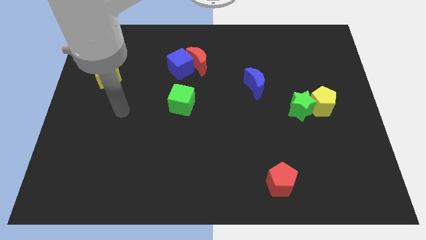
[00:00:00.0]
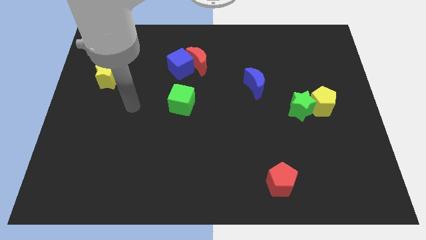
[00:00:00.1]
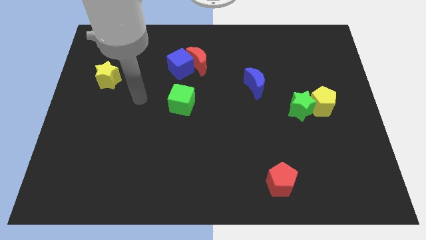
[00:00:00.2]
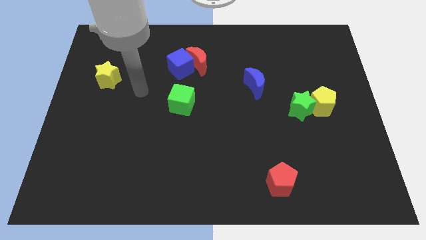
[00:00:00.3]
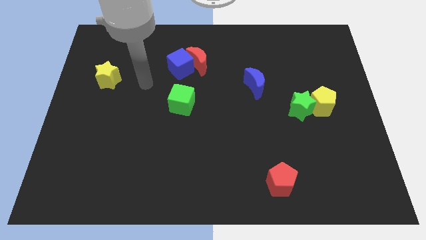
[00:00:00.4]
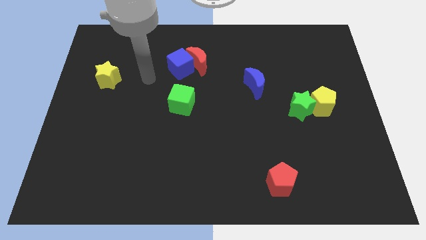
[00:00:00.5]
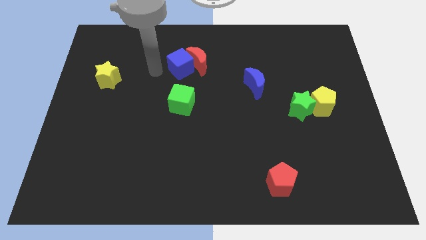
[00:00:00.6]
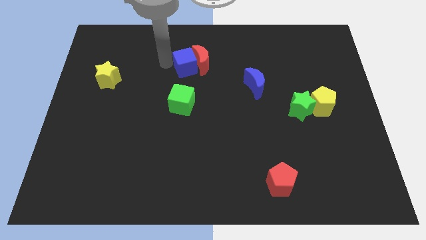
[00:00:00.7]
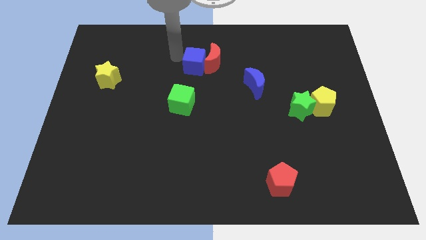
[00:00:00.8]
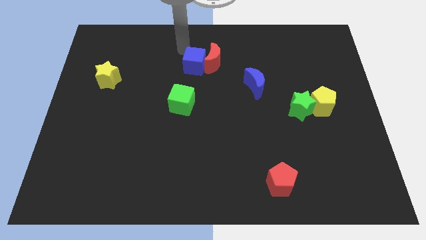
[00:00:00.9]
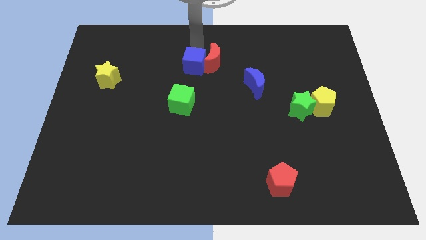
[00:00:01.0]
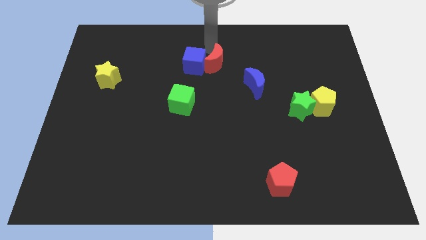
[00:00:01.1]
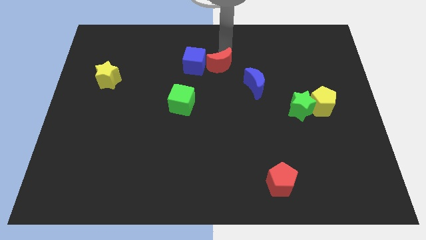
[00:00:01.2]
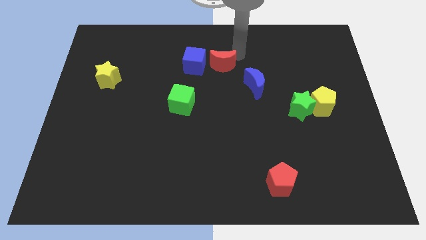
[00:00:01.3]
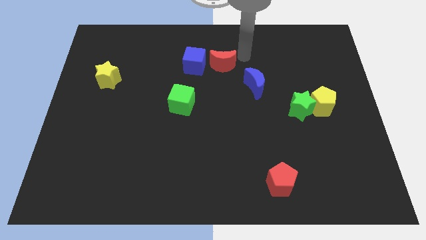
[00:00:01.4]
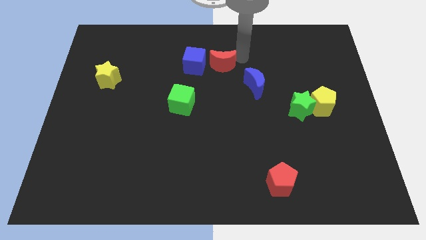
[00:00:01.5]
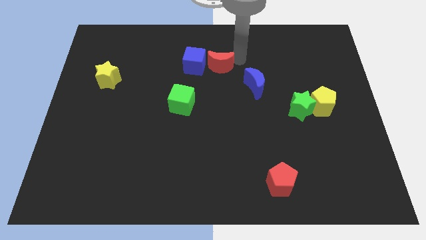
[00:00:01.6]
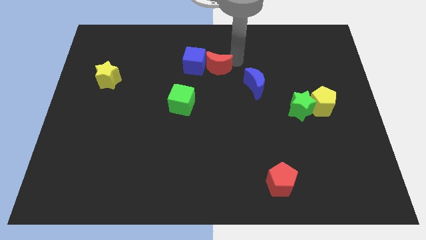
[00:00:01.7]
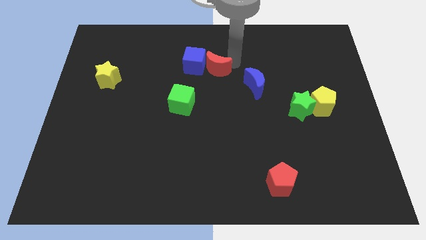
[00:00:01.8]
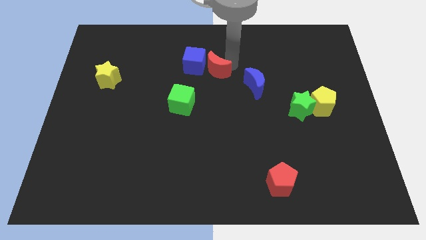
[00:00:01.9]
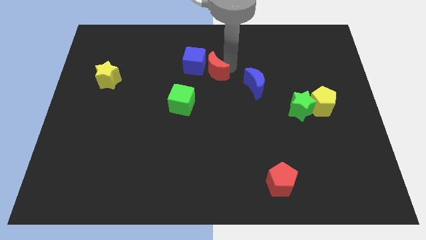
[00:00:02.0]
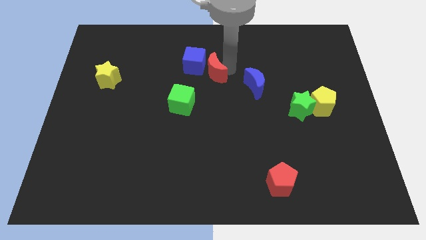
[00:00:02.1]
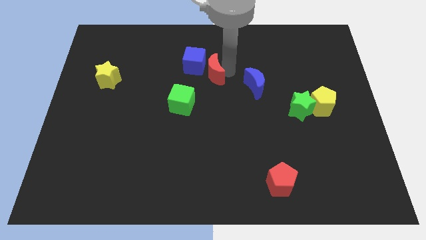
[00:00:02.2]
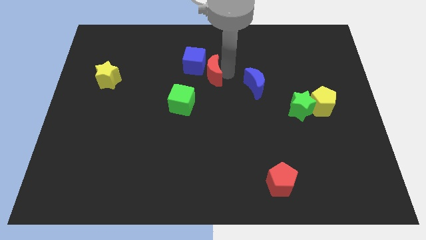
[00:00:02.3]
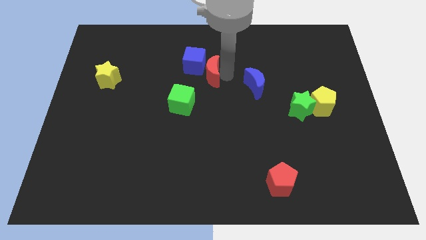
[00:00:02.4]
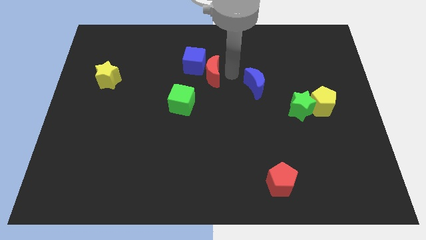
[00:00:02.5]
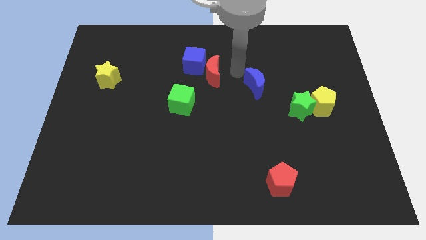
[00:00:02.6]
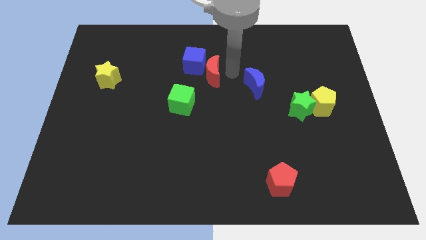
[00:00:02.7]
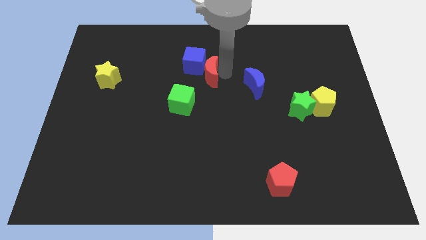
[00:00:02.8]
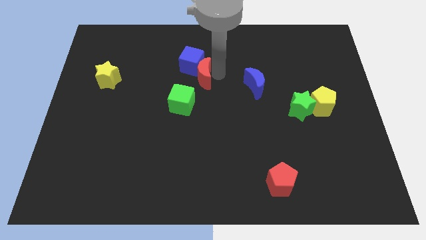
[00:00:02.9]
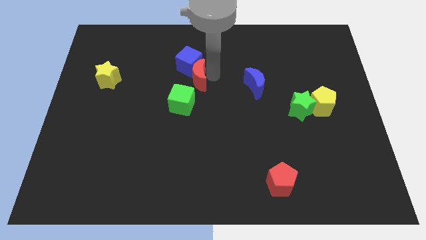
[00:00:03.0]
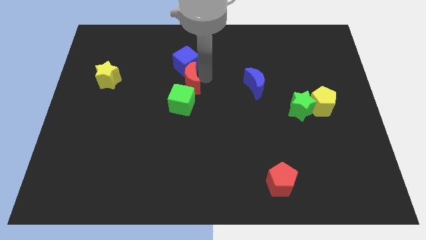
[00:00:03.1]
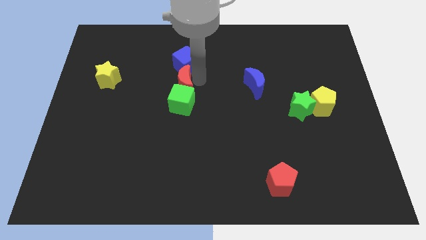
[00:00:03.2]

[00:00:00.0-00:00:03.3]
push the red moon downwards and then left a bit

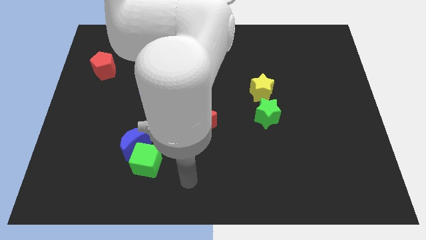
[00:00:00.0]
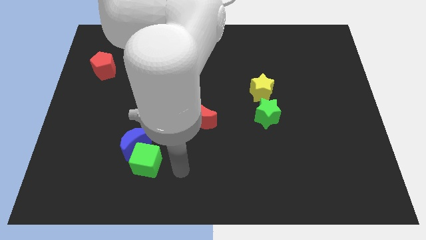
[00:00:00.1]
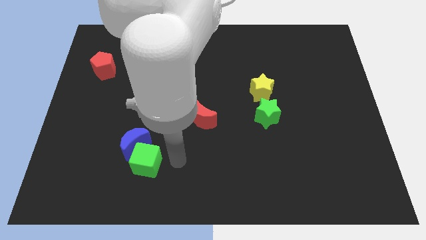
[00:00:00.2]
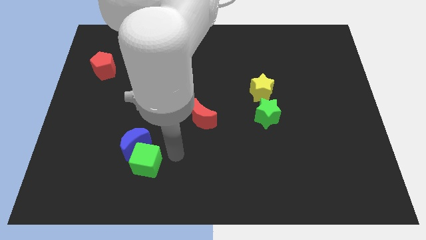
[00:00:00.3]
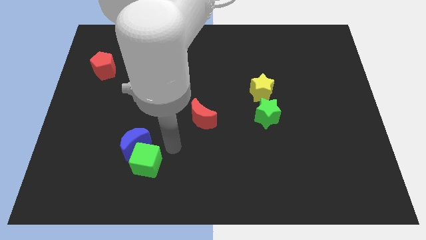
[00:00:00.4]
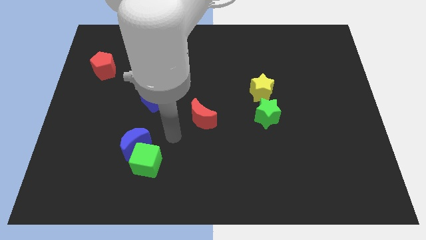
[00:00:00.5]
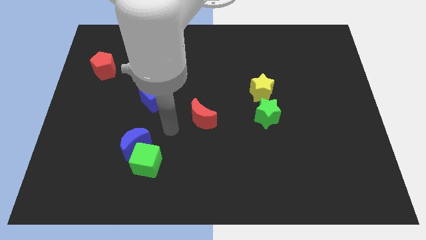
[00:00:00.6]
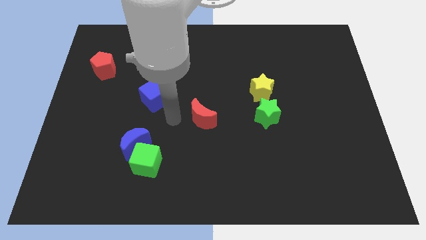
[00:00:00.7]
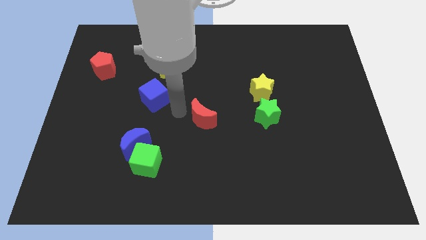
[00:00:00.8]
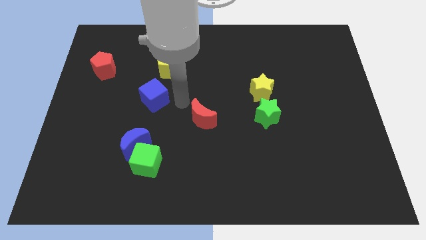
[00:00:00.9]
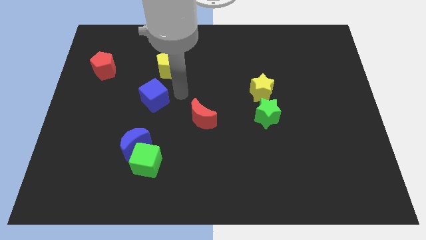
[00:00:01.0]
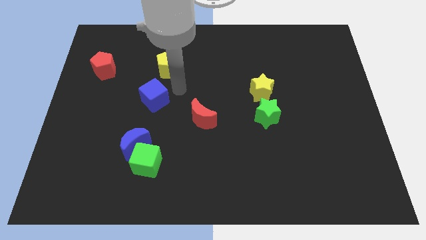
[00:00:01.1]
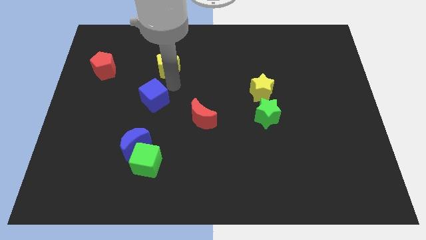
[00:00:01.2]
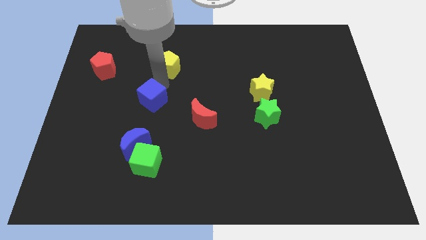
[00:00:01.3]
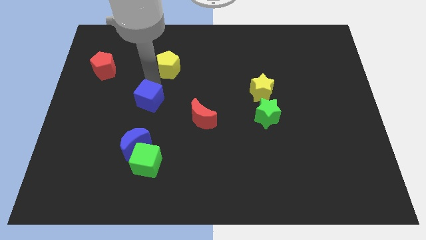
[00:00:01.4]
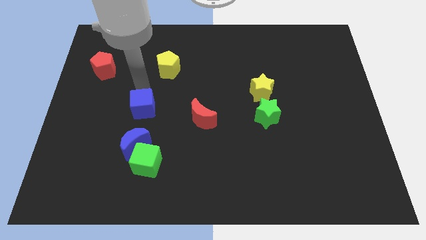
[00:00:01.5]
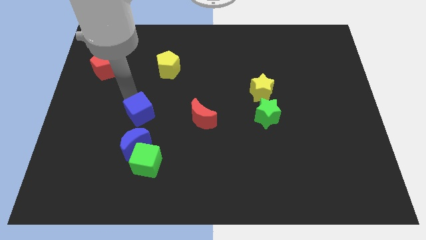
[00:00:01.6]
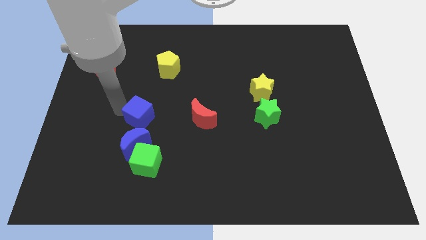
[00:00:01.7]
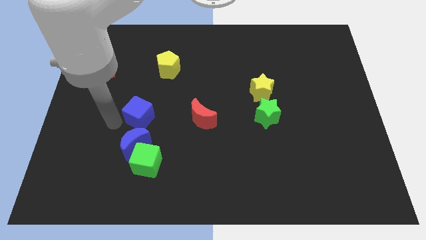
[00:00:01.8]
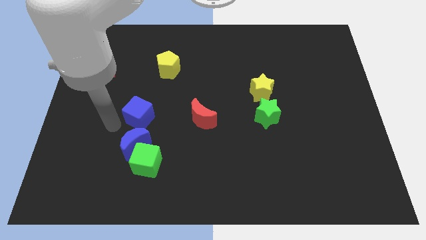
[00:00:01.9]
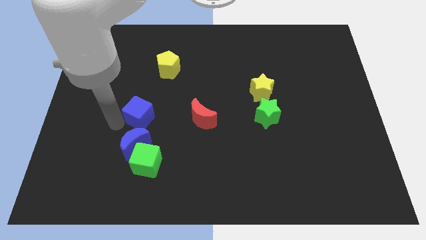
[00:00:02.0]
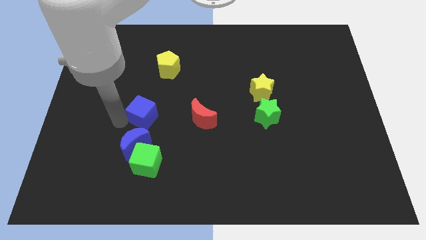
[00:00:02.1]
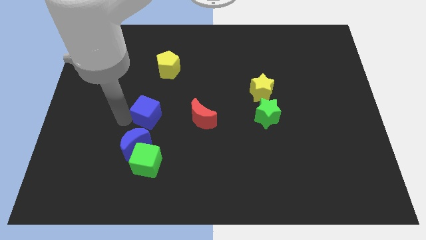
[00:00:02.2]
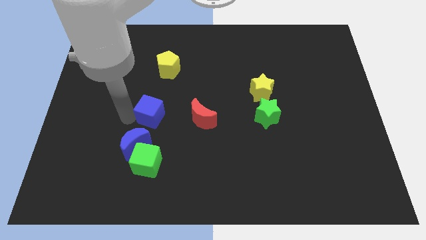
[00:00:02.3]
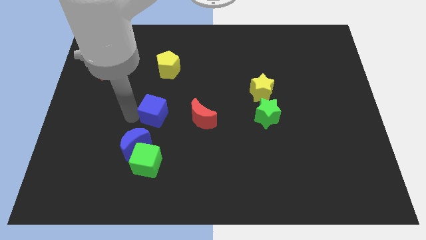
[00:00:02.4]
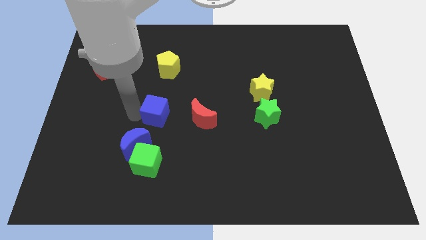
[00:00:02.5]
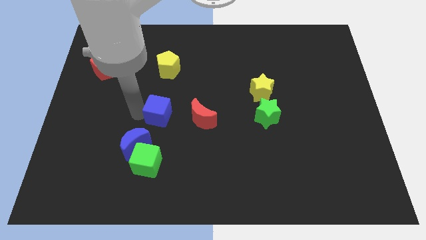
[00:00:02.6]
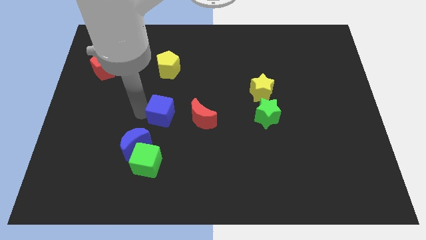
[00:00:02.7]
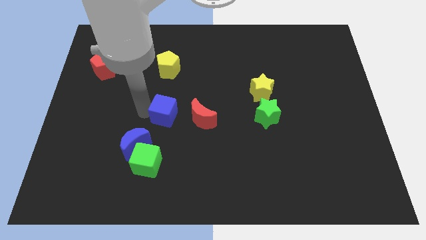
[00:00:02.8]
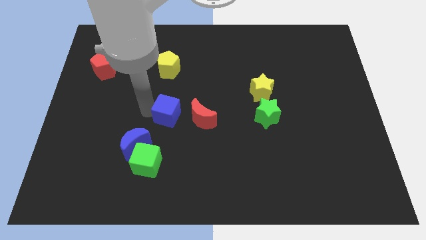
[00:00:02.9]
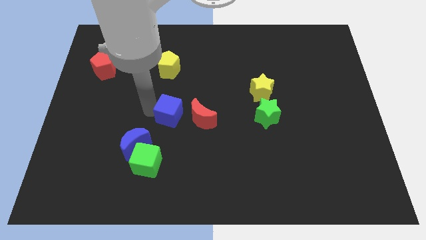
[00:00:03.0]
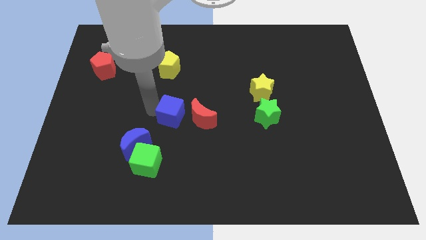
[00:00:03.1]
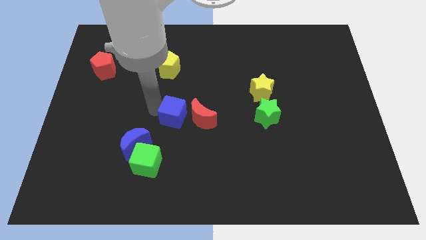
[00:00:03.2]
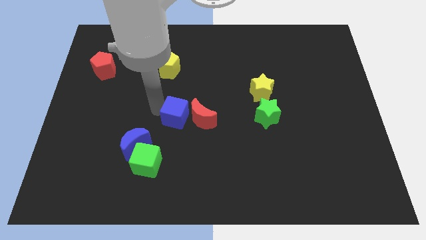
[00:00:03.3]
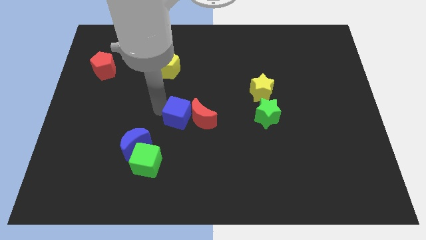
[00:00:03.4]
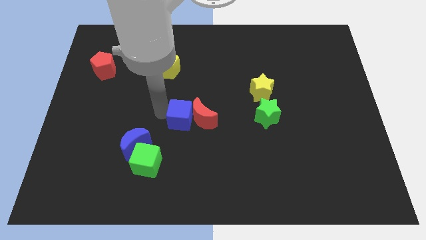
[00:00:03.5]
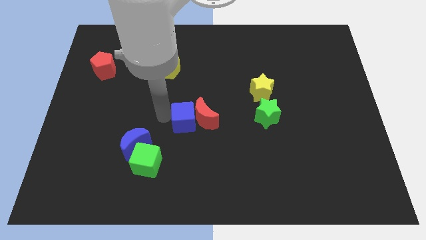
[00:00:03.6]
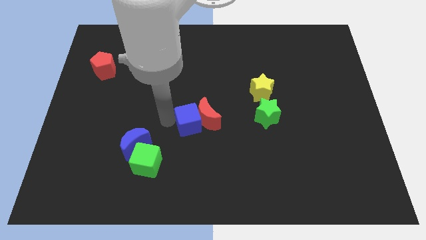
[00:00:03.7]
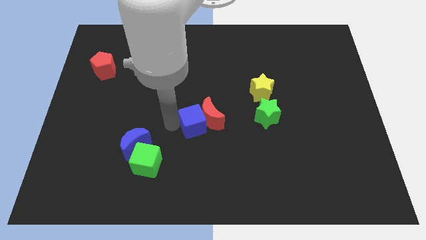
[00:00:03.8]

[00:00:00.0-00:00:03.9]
slightly move the blue cube right

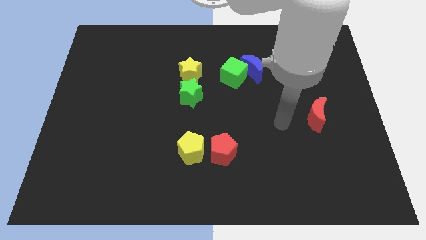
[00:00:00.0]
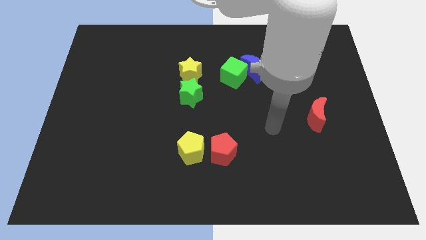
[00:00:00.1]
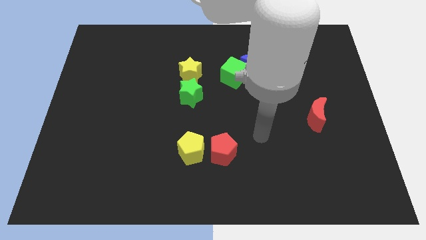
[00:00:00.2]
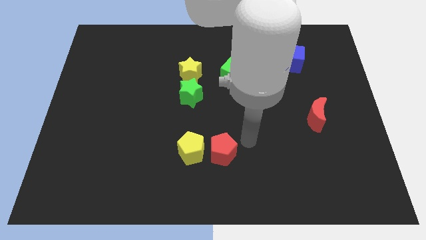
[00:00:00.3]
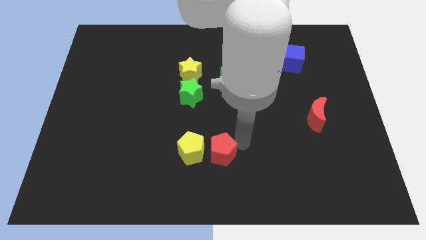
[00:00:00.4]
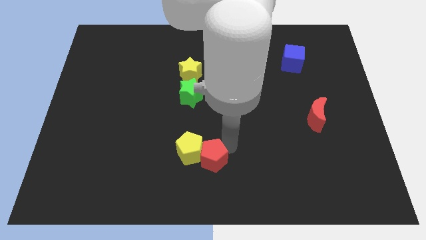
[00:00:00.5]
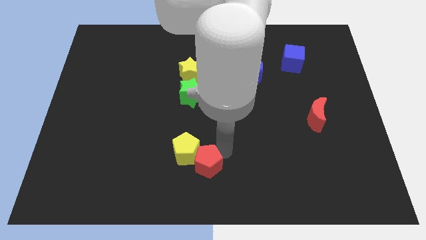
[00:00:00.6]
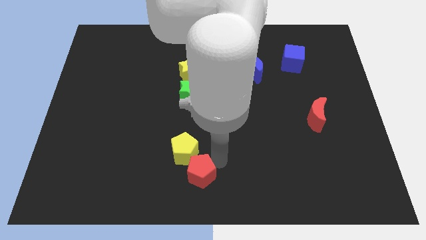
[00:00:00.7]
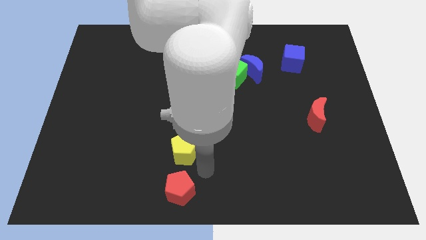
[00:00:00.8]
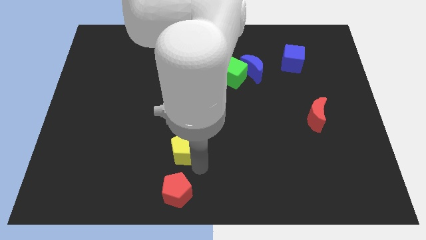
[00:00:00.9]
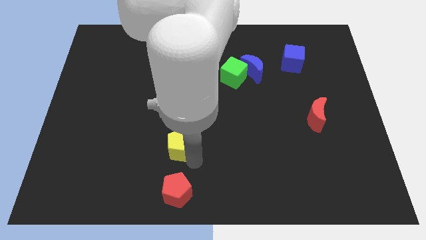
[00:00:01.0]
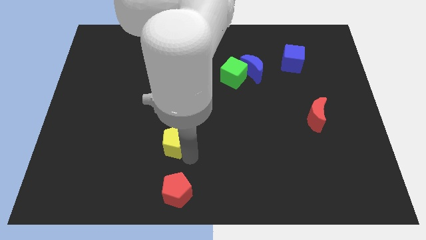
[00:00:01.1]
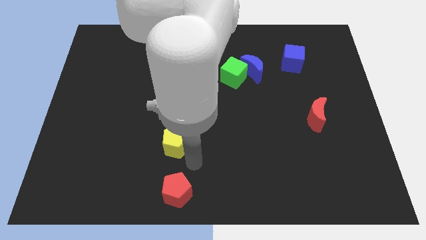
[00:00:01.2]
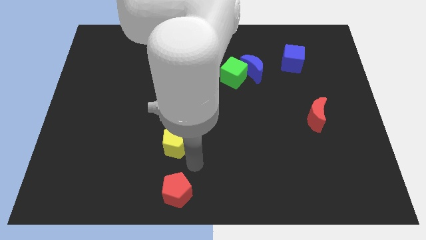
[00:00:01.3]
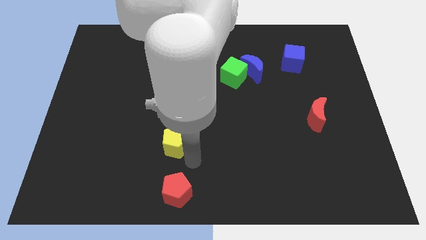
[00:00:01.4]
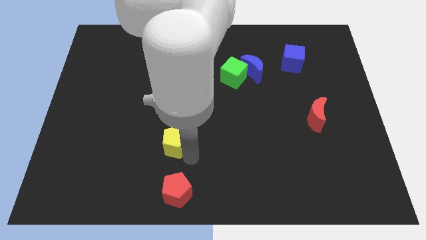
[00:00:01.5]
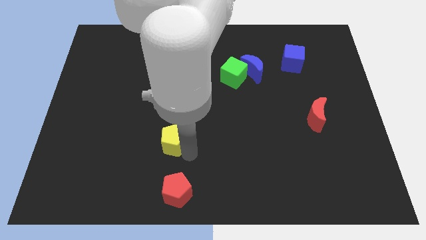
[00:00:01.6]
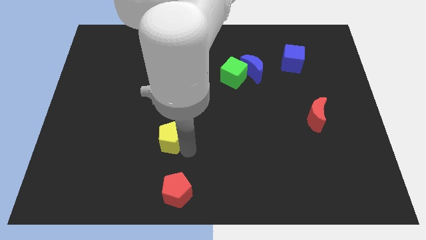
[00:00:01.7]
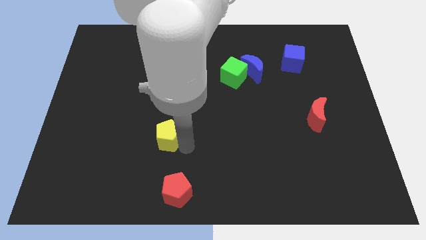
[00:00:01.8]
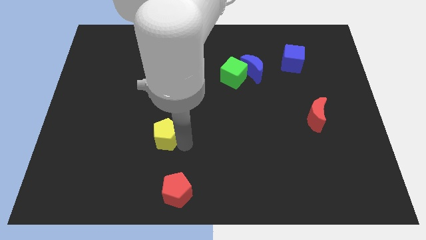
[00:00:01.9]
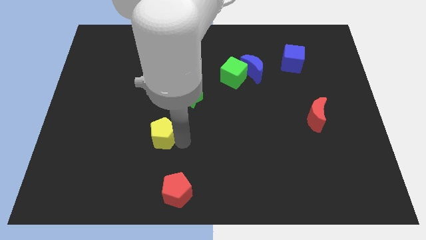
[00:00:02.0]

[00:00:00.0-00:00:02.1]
slightly slide the yellow pentagon up and then left
